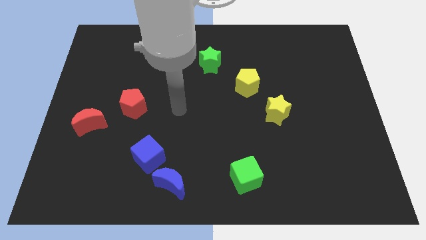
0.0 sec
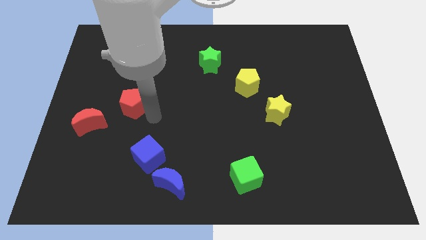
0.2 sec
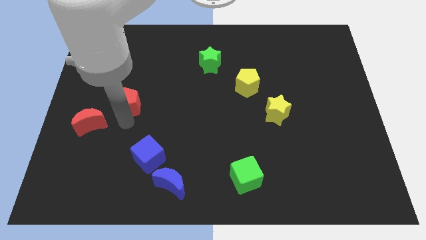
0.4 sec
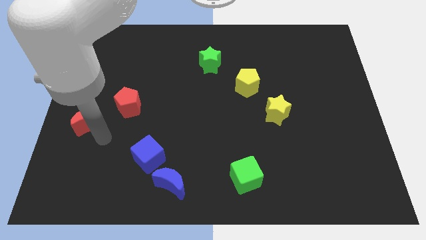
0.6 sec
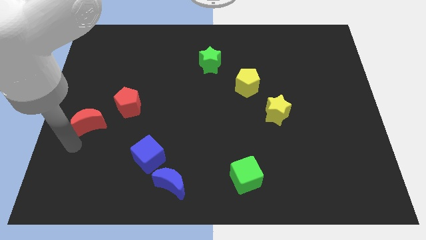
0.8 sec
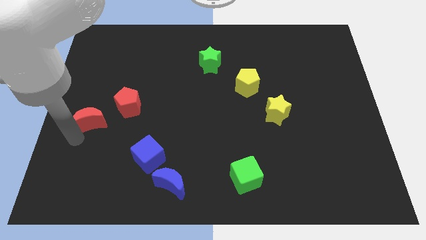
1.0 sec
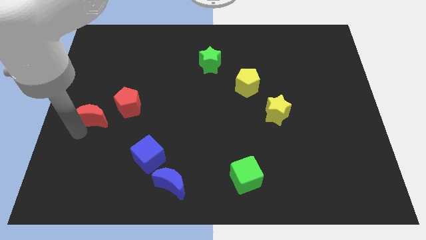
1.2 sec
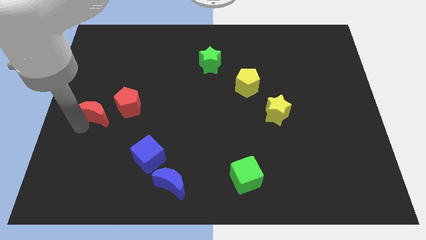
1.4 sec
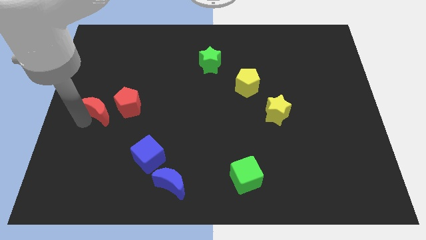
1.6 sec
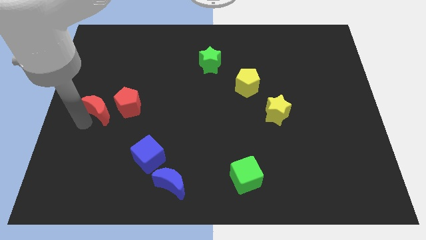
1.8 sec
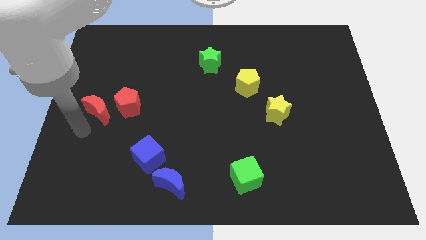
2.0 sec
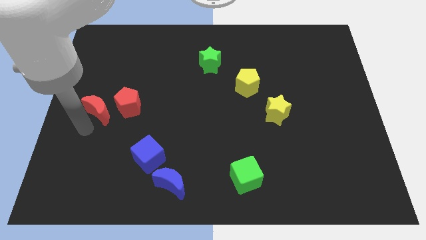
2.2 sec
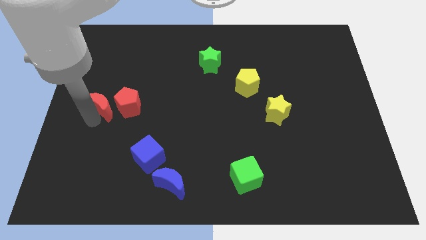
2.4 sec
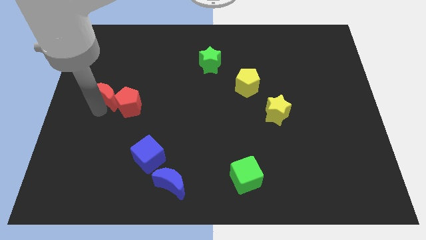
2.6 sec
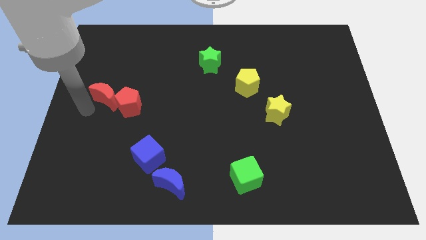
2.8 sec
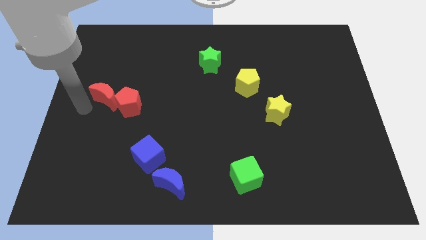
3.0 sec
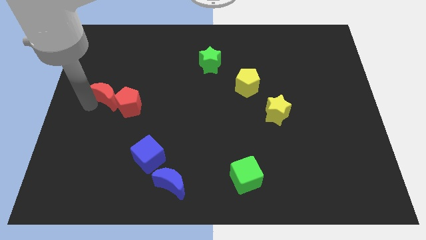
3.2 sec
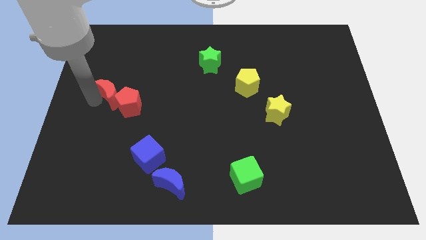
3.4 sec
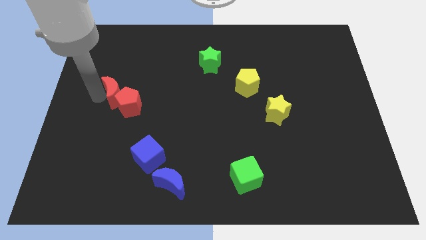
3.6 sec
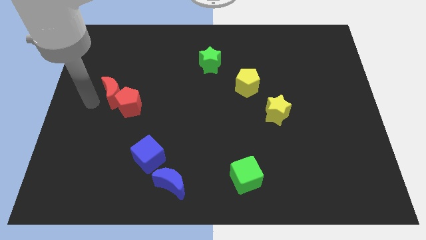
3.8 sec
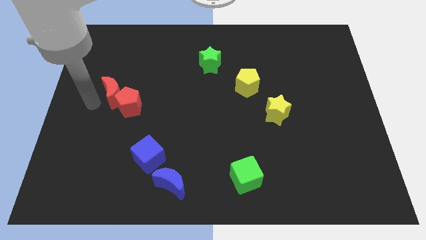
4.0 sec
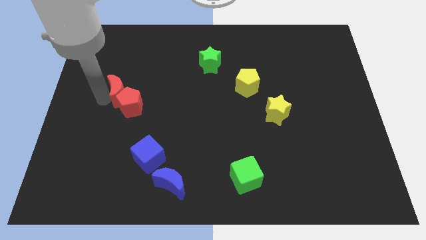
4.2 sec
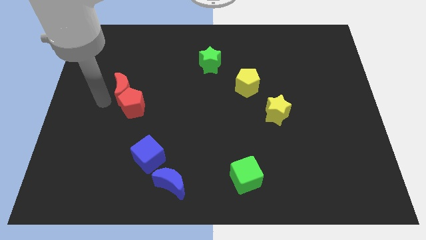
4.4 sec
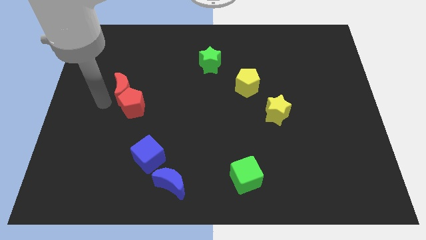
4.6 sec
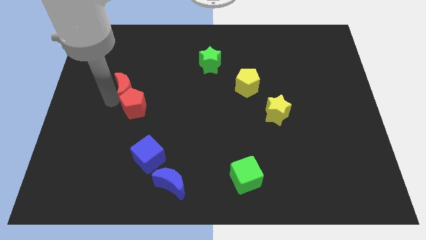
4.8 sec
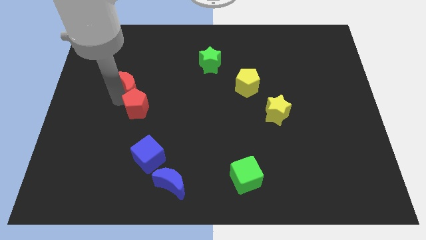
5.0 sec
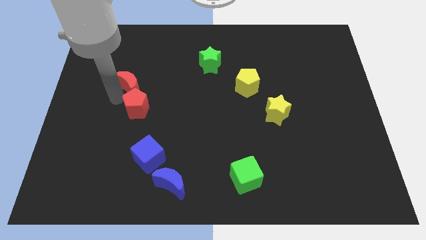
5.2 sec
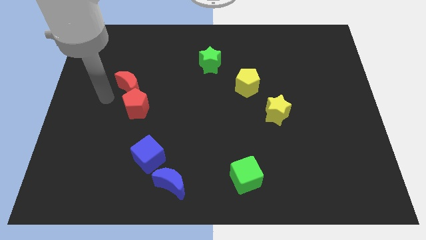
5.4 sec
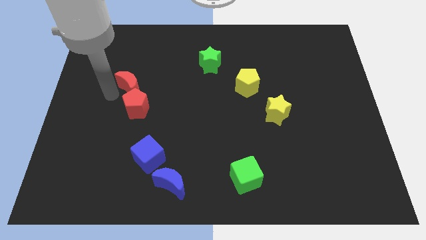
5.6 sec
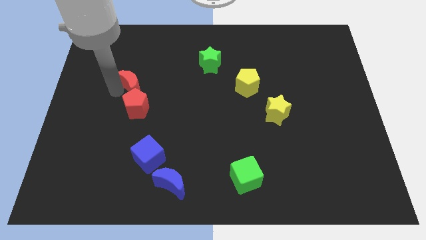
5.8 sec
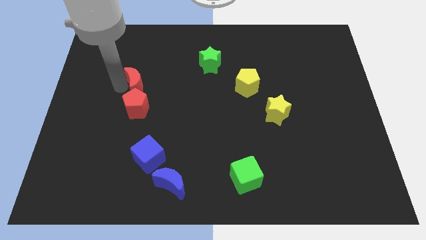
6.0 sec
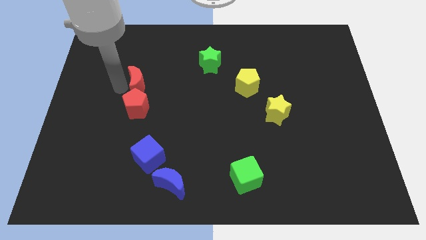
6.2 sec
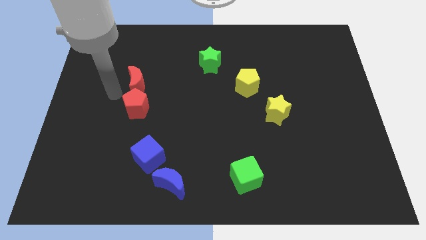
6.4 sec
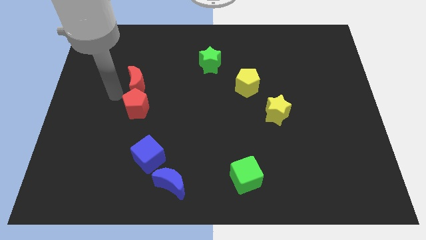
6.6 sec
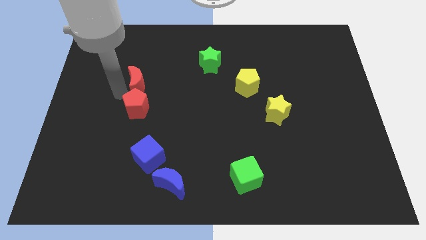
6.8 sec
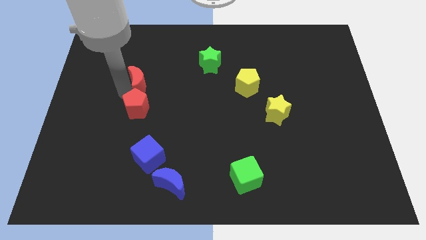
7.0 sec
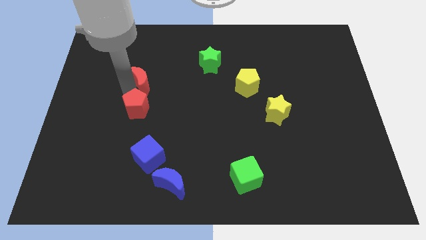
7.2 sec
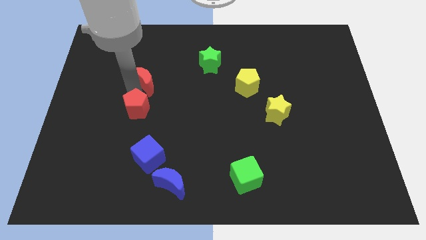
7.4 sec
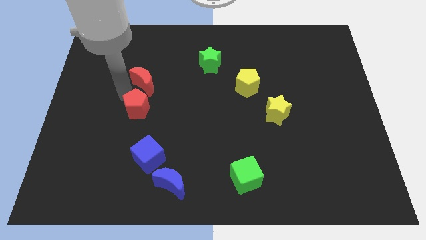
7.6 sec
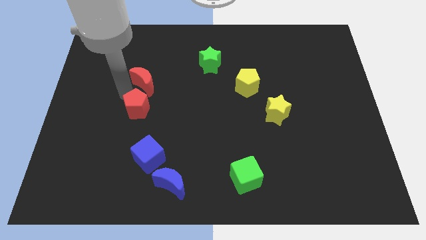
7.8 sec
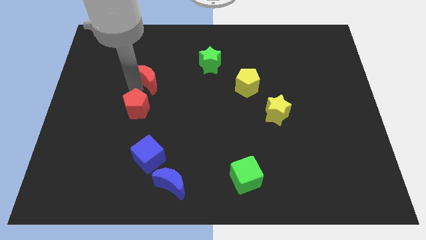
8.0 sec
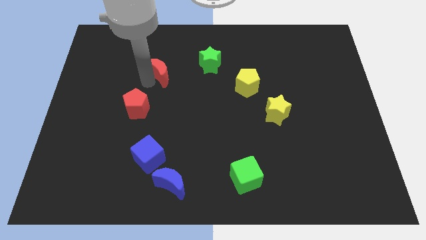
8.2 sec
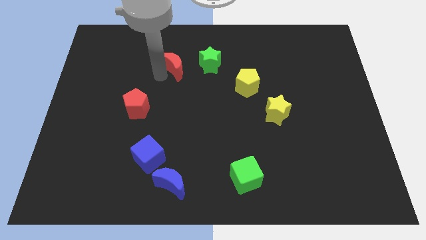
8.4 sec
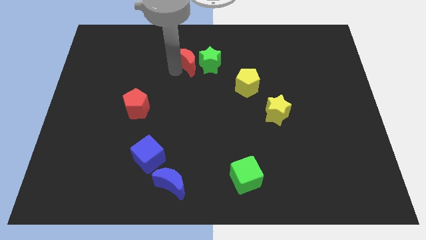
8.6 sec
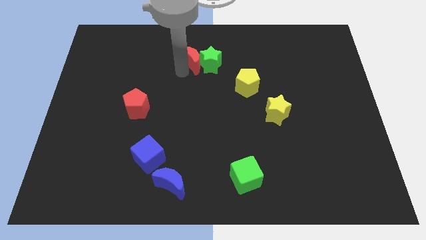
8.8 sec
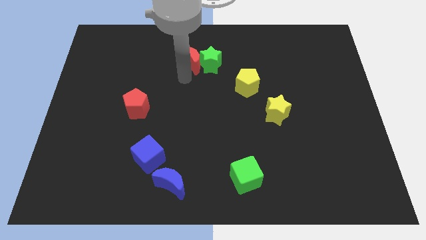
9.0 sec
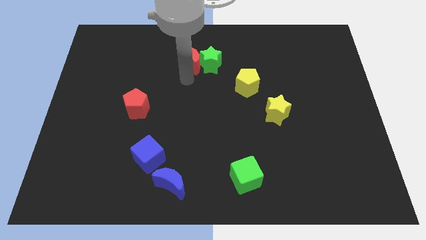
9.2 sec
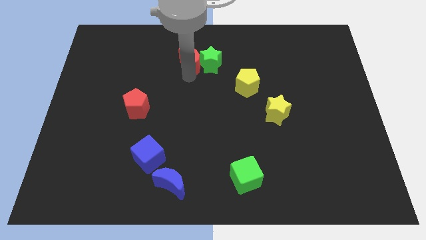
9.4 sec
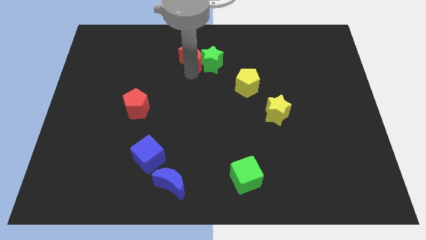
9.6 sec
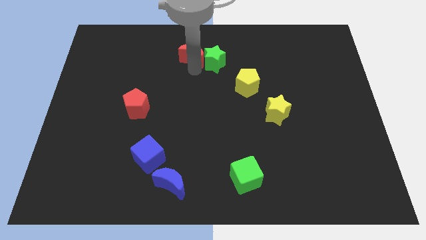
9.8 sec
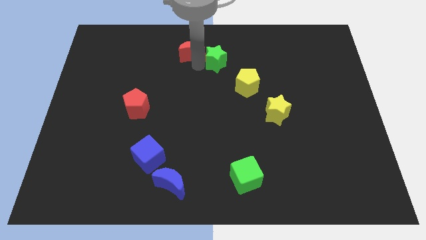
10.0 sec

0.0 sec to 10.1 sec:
push the red moon to the towards your base

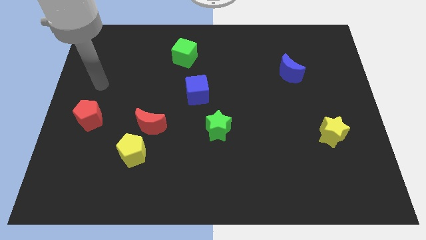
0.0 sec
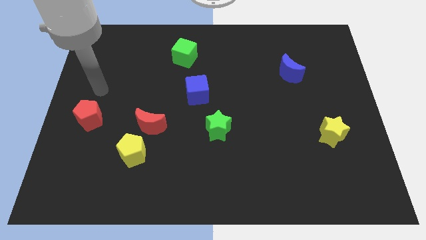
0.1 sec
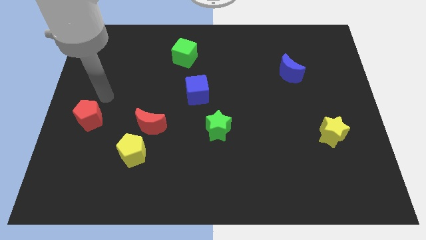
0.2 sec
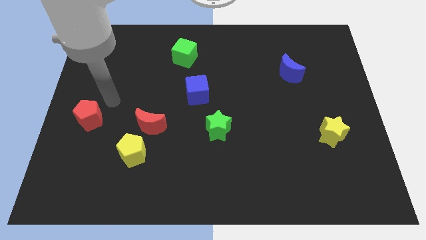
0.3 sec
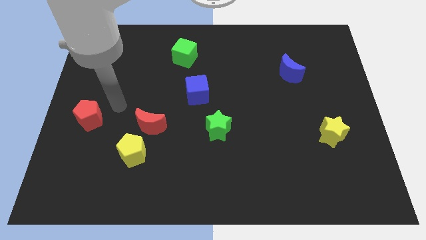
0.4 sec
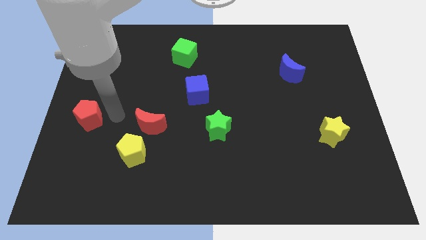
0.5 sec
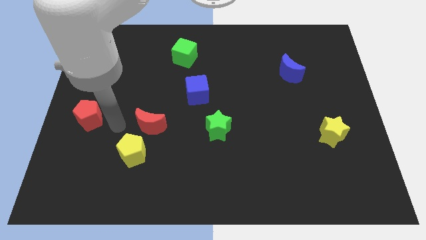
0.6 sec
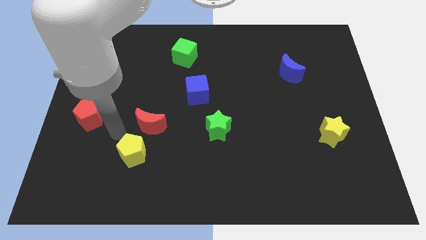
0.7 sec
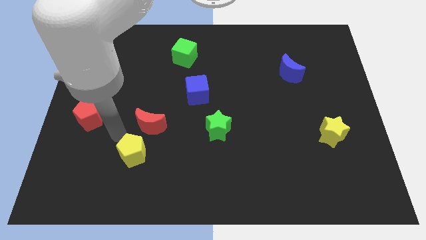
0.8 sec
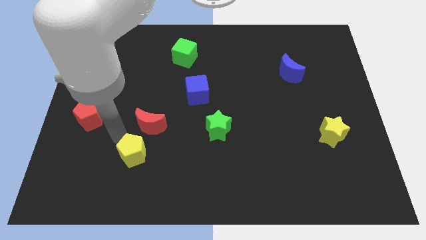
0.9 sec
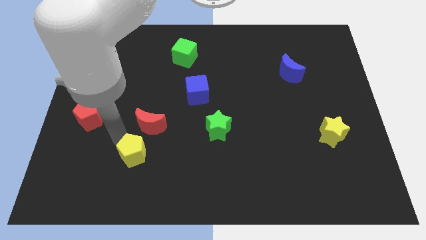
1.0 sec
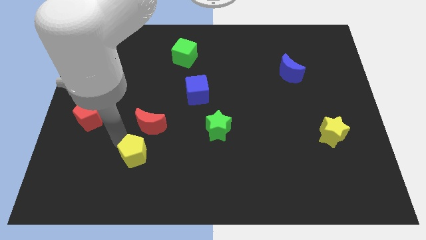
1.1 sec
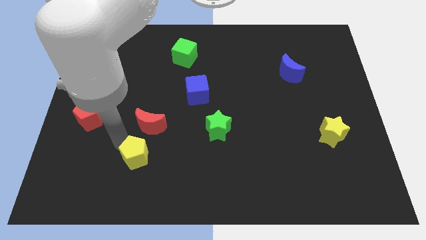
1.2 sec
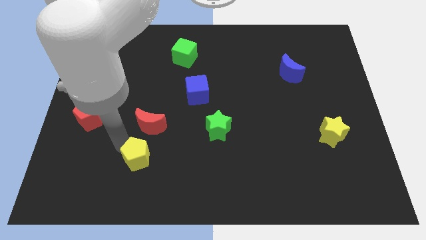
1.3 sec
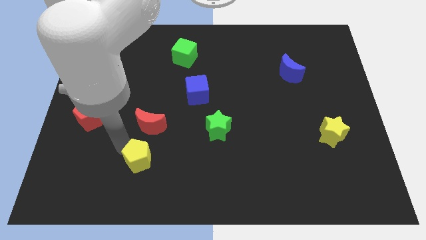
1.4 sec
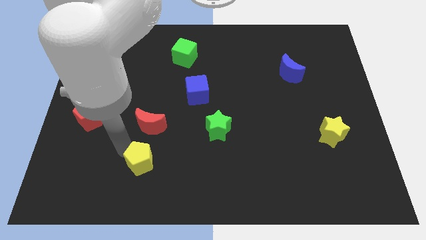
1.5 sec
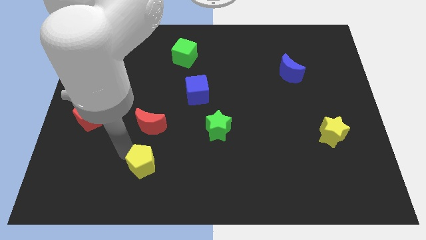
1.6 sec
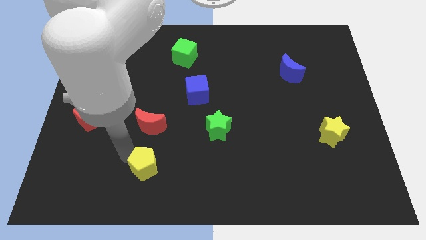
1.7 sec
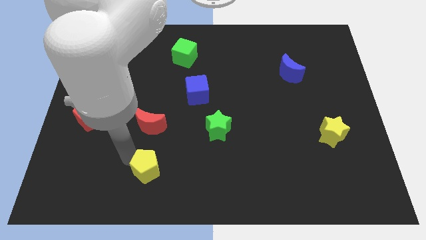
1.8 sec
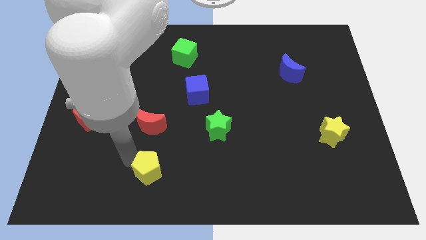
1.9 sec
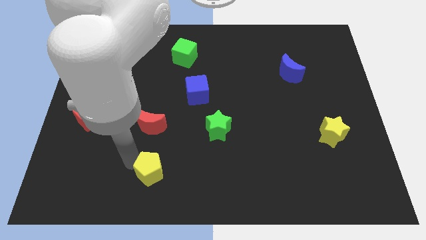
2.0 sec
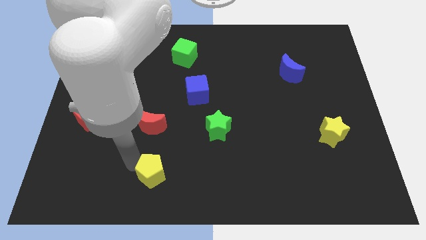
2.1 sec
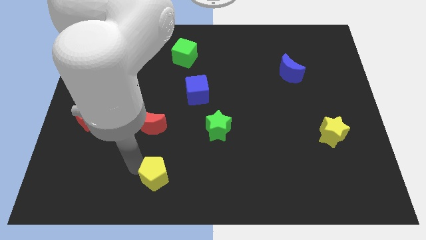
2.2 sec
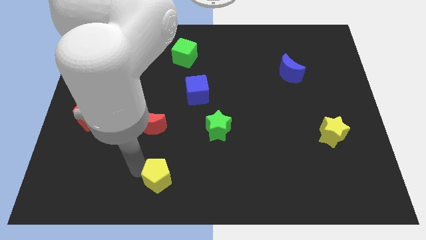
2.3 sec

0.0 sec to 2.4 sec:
move the yellow pentagon to the bottom
